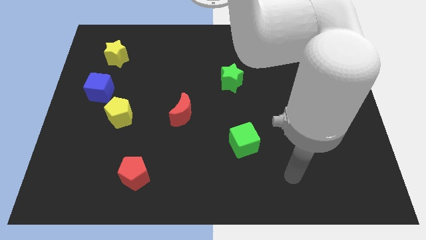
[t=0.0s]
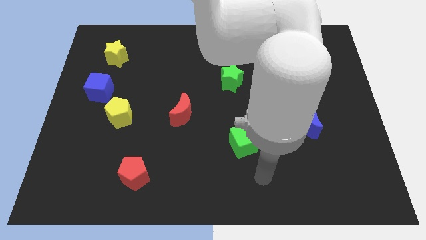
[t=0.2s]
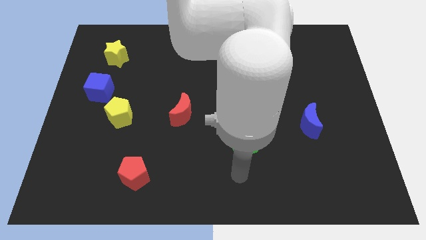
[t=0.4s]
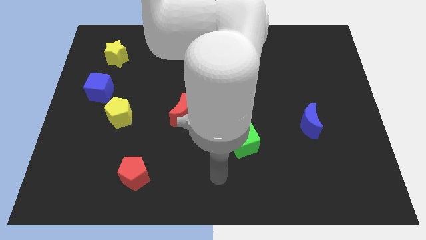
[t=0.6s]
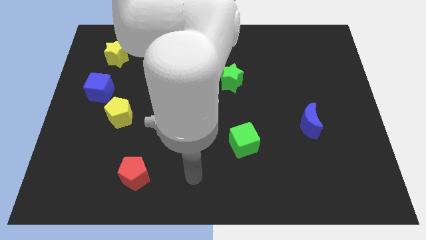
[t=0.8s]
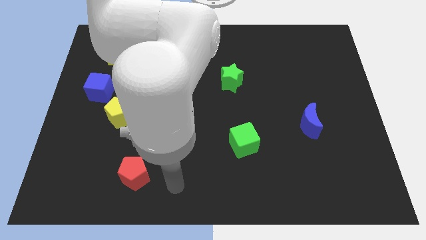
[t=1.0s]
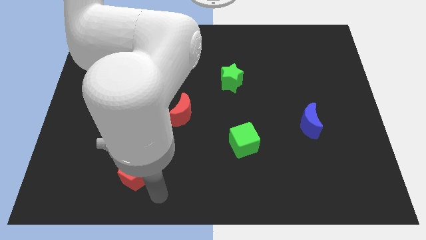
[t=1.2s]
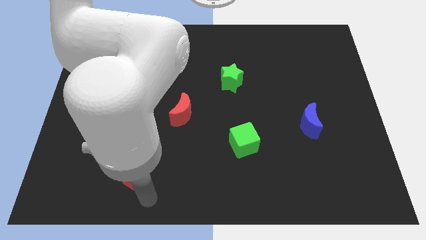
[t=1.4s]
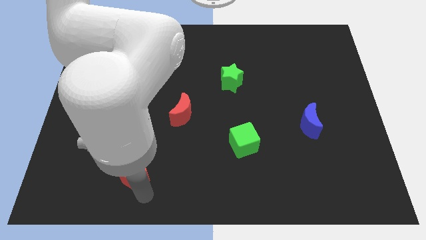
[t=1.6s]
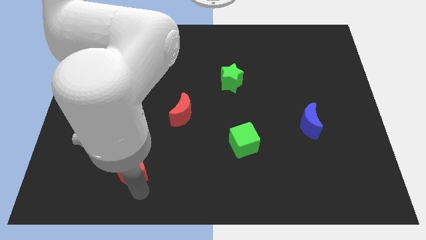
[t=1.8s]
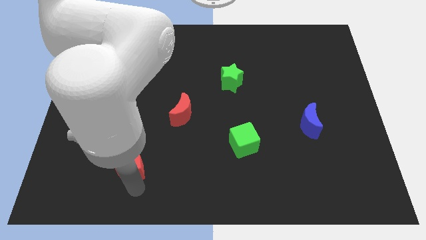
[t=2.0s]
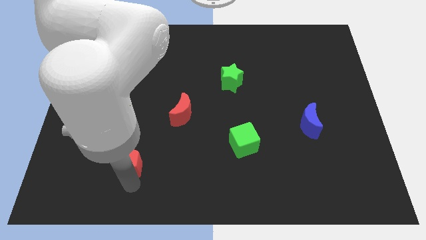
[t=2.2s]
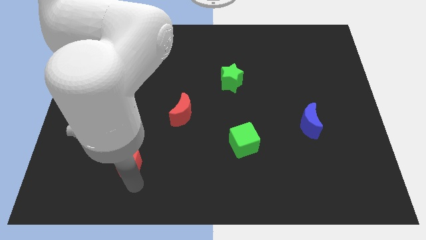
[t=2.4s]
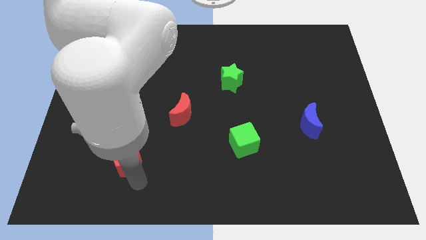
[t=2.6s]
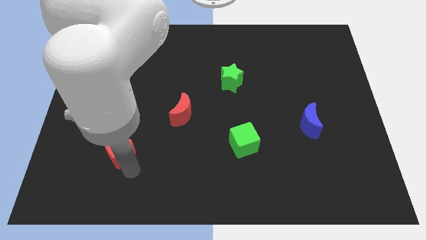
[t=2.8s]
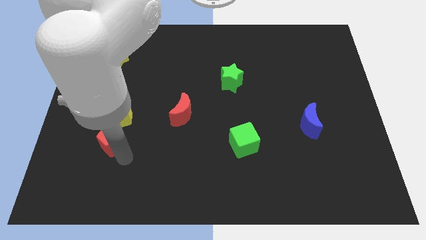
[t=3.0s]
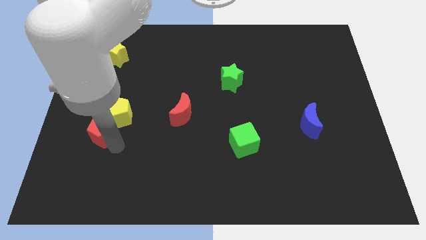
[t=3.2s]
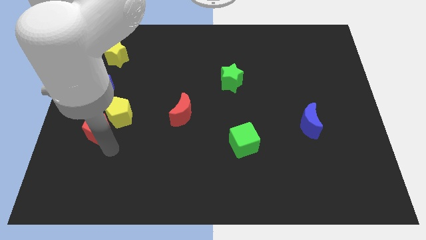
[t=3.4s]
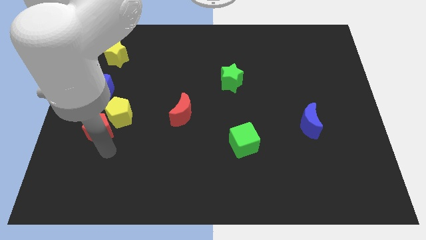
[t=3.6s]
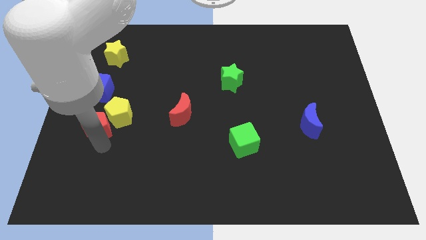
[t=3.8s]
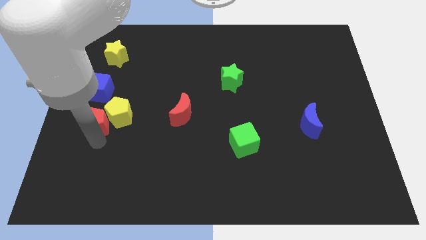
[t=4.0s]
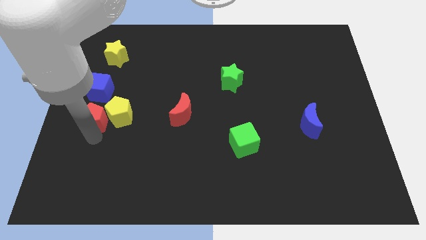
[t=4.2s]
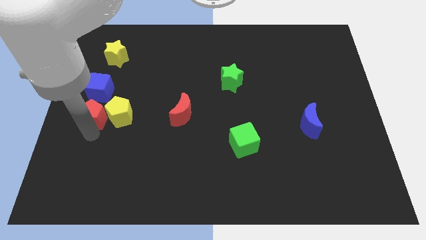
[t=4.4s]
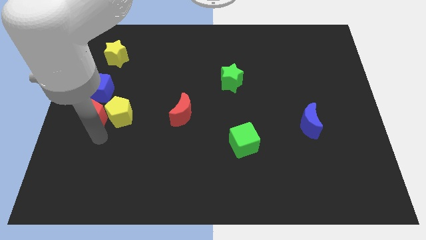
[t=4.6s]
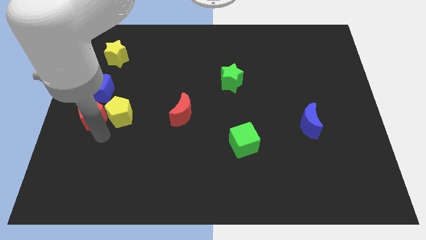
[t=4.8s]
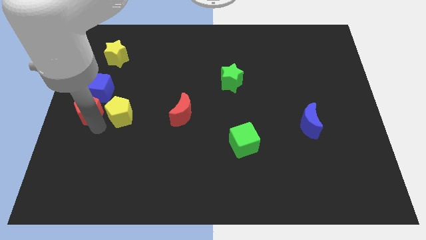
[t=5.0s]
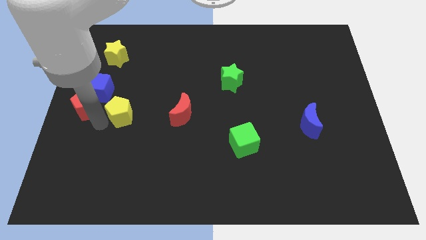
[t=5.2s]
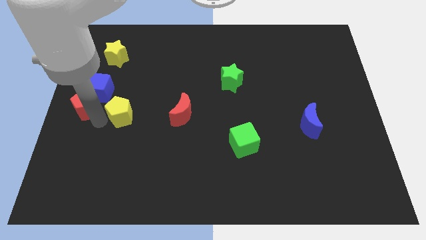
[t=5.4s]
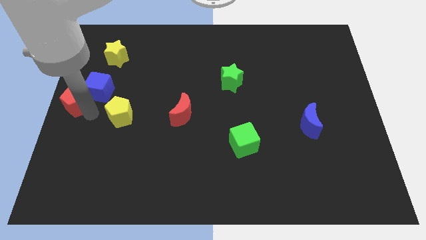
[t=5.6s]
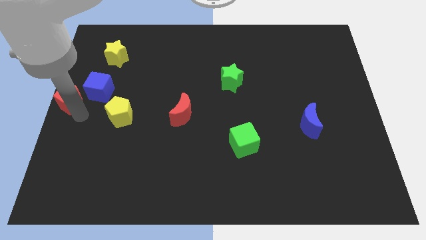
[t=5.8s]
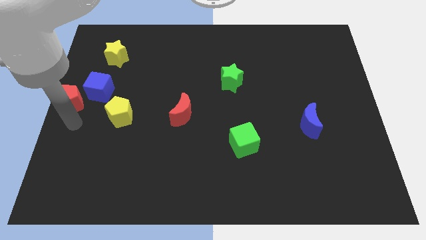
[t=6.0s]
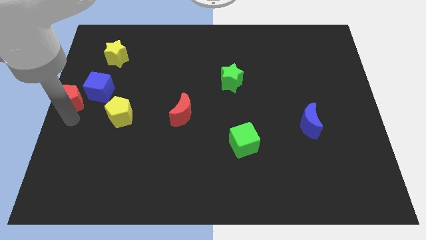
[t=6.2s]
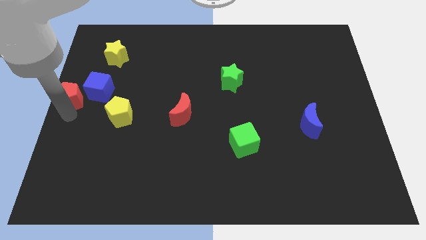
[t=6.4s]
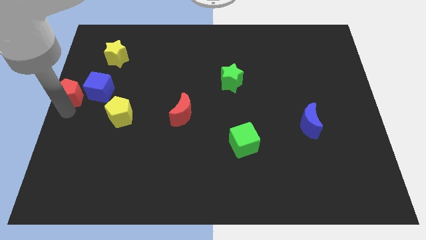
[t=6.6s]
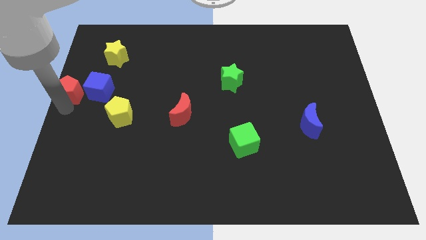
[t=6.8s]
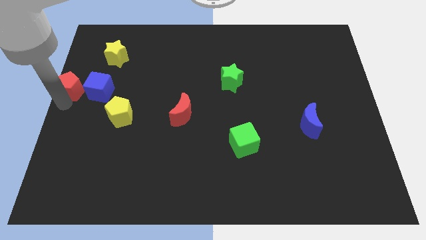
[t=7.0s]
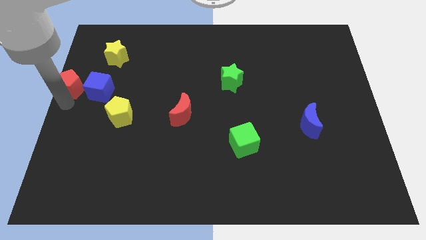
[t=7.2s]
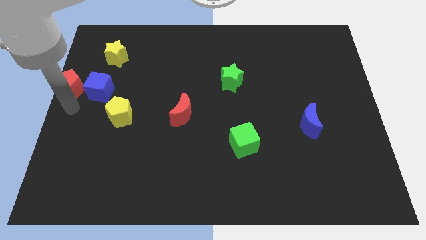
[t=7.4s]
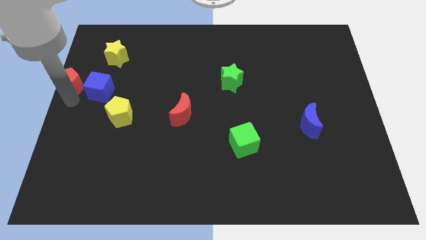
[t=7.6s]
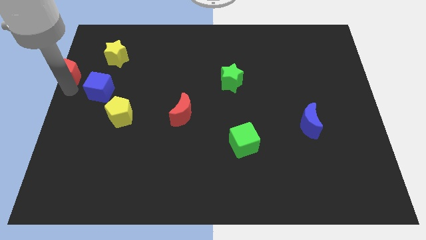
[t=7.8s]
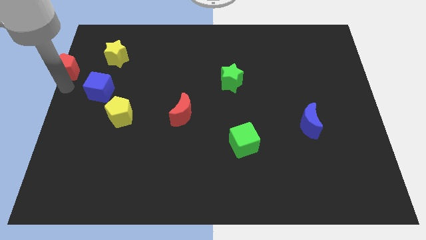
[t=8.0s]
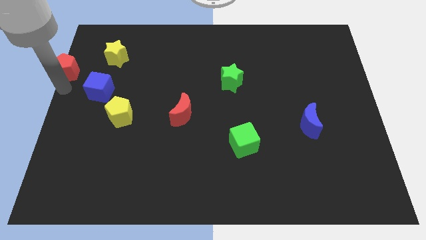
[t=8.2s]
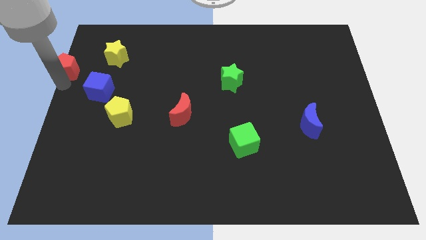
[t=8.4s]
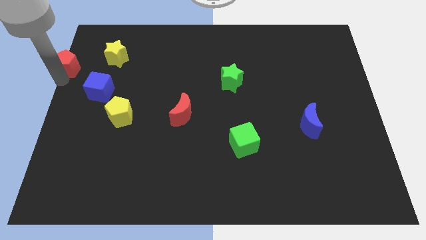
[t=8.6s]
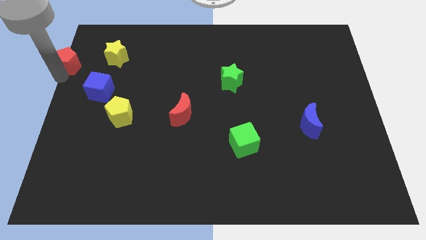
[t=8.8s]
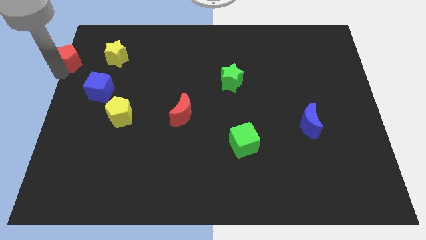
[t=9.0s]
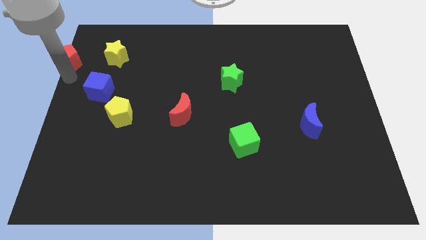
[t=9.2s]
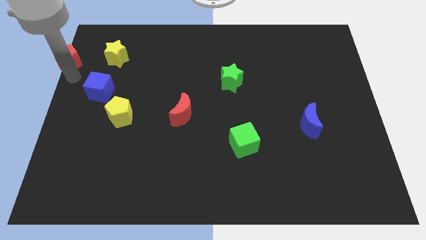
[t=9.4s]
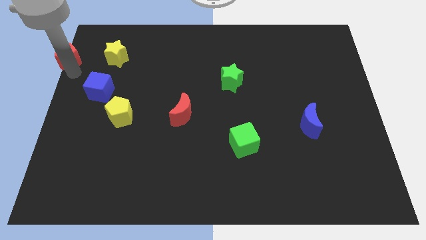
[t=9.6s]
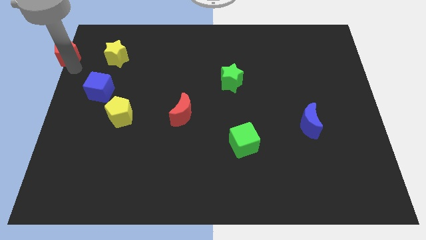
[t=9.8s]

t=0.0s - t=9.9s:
slide the red pentagon to the top left

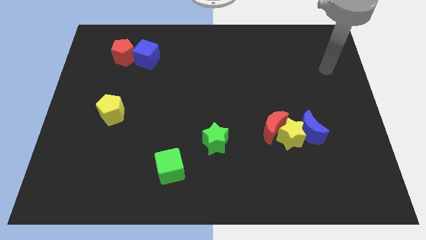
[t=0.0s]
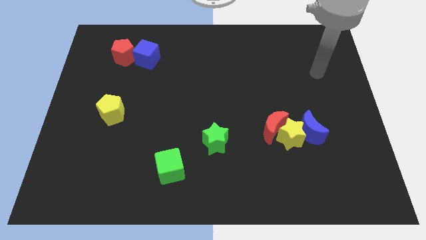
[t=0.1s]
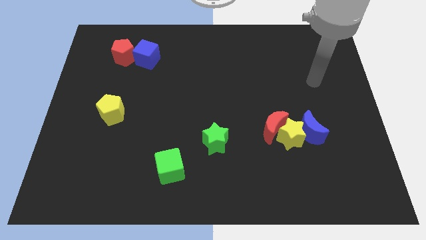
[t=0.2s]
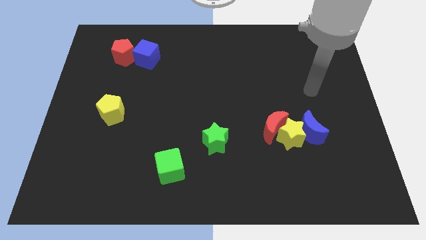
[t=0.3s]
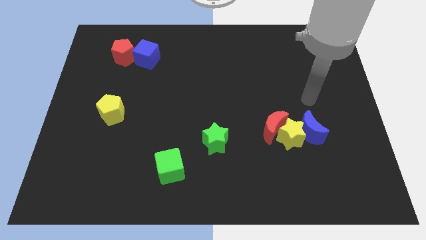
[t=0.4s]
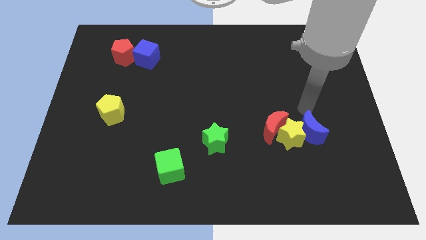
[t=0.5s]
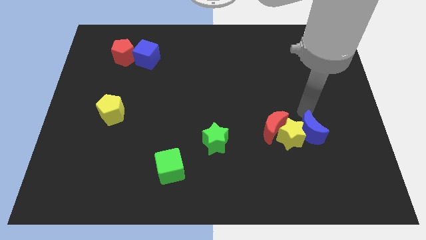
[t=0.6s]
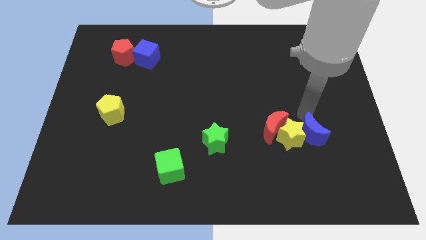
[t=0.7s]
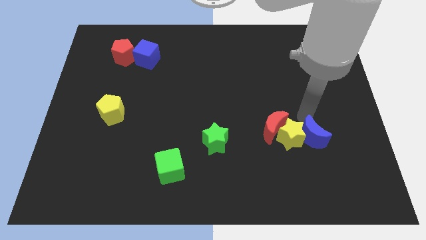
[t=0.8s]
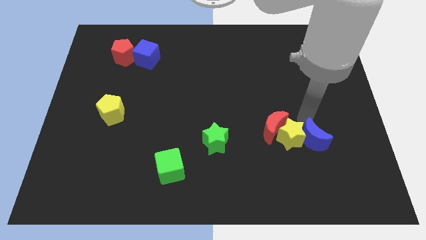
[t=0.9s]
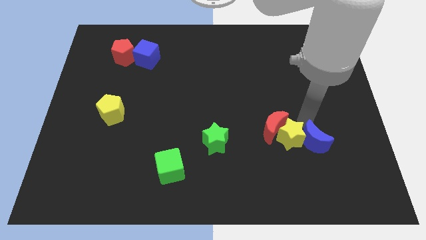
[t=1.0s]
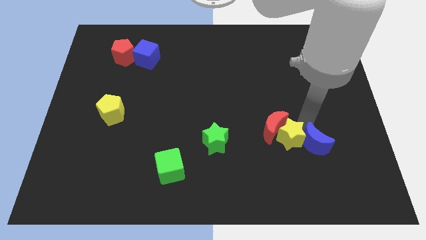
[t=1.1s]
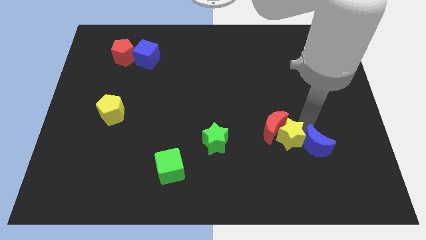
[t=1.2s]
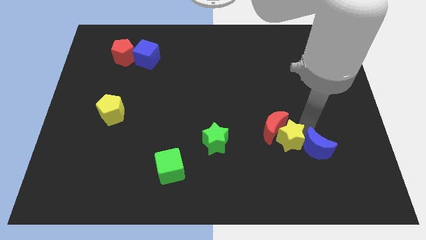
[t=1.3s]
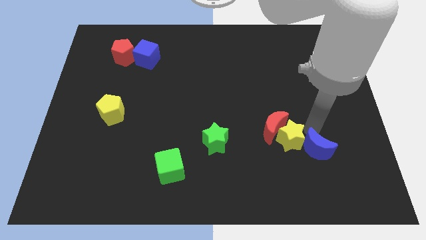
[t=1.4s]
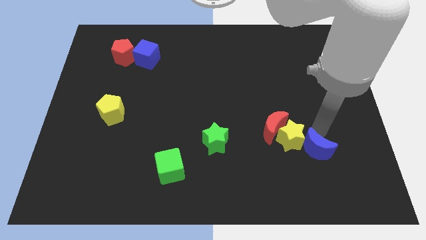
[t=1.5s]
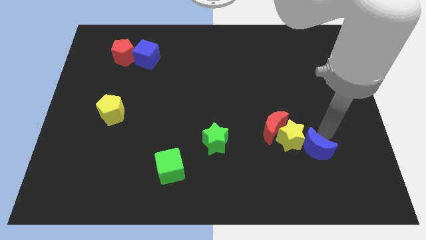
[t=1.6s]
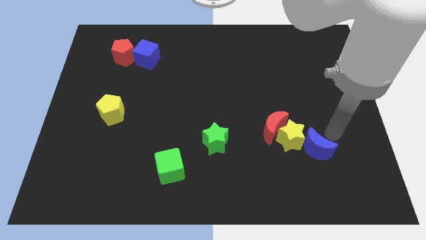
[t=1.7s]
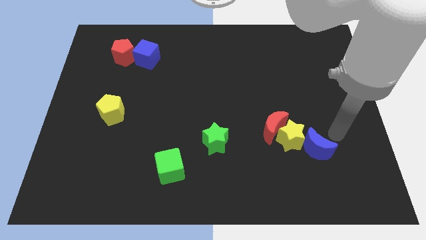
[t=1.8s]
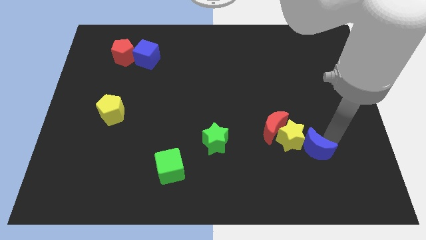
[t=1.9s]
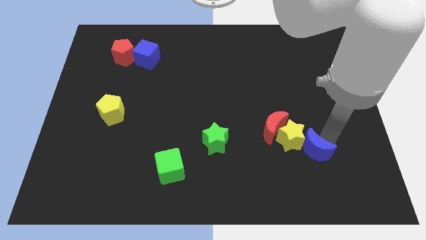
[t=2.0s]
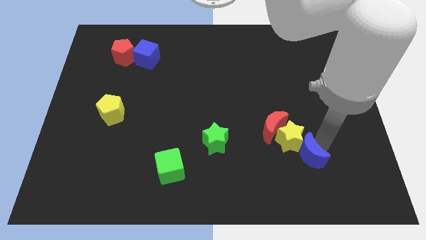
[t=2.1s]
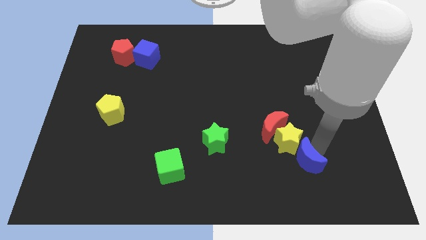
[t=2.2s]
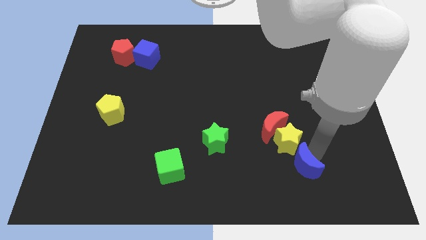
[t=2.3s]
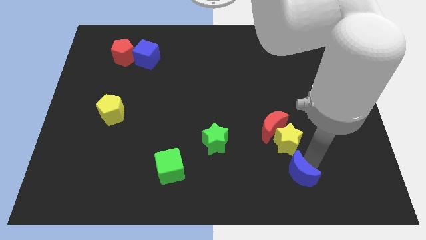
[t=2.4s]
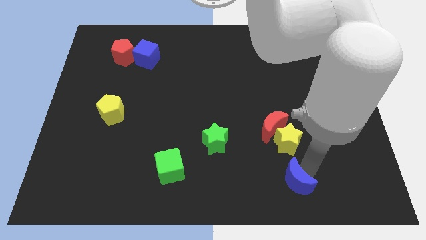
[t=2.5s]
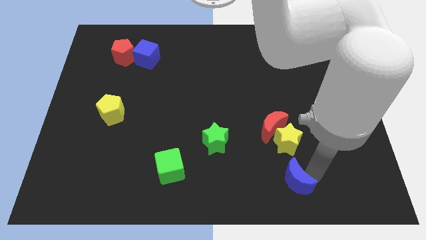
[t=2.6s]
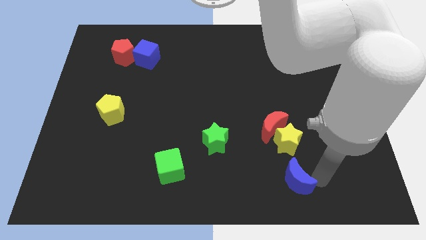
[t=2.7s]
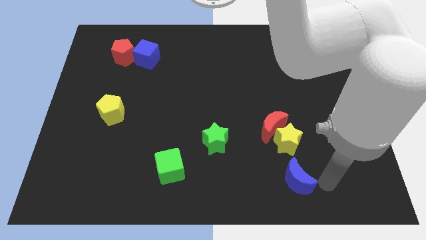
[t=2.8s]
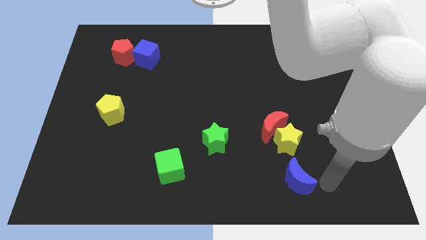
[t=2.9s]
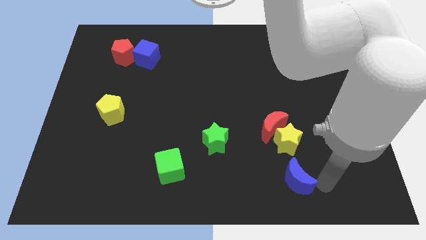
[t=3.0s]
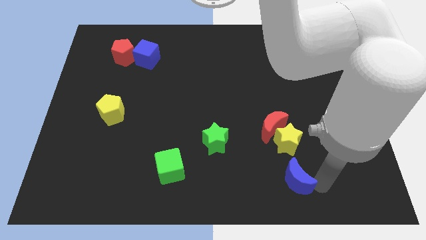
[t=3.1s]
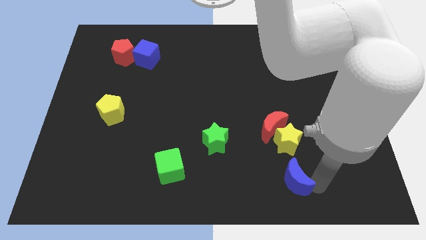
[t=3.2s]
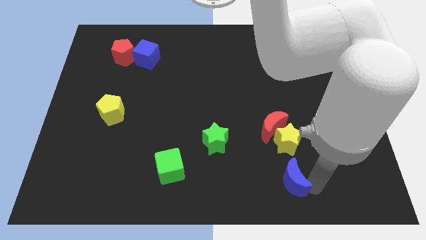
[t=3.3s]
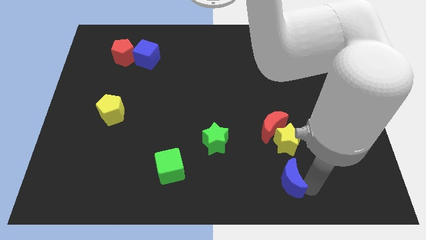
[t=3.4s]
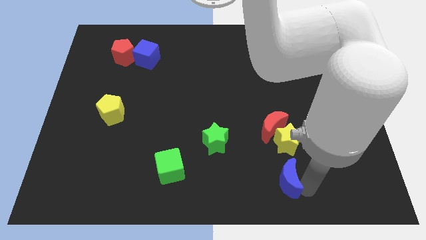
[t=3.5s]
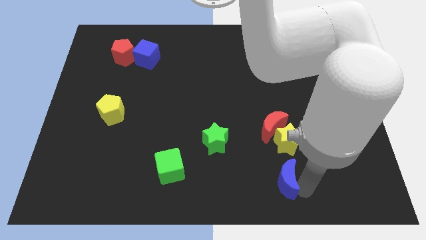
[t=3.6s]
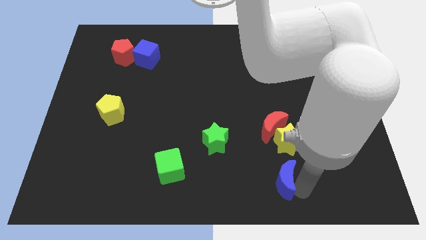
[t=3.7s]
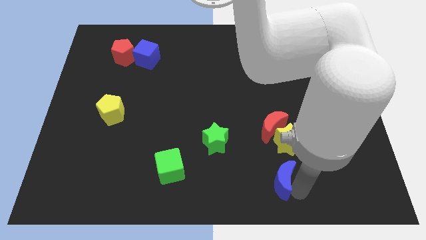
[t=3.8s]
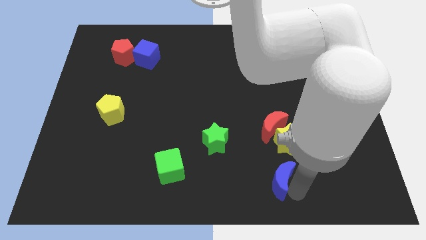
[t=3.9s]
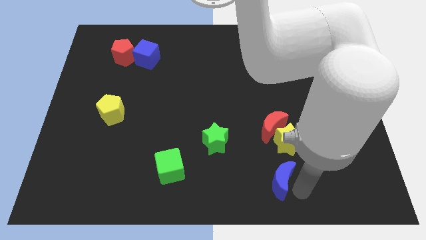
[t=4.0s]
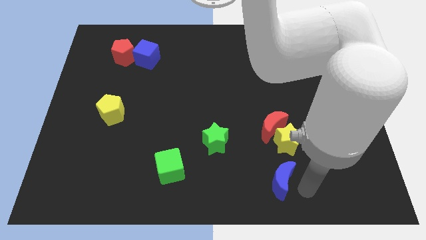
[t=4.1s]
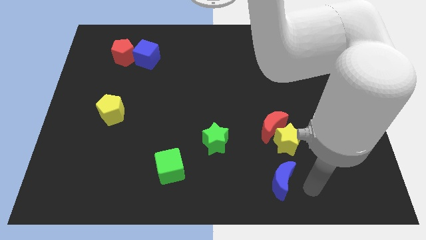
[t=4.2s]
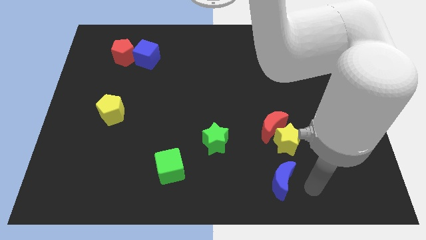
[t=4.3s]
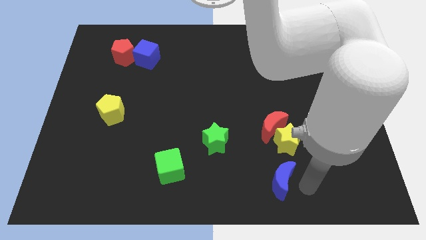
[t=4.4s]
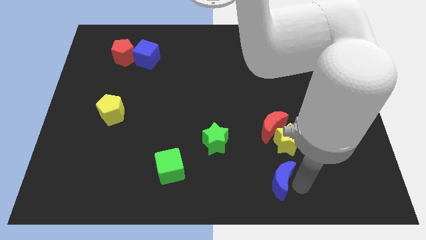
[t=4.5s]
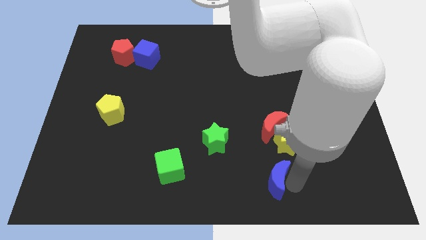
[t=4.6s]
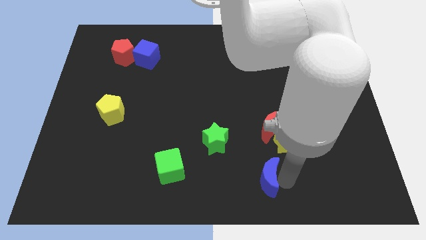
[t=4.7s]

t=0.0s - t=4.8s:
move the blue moon to the bottom side
